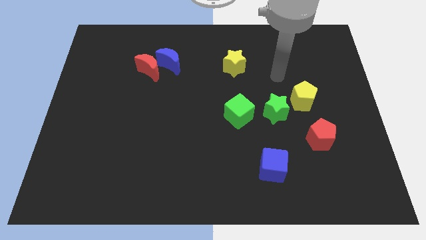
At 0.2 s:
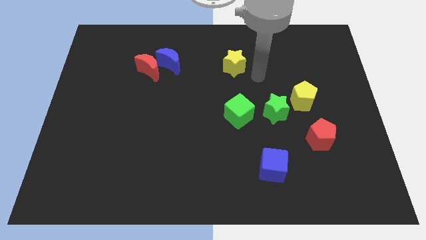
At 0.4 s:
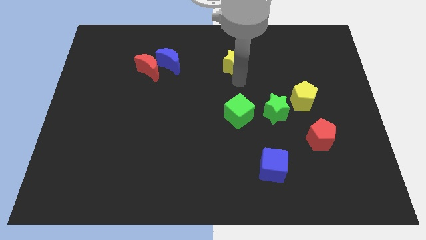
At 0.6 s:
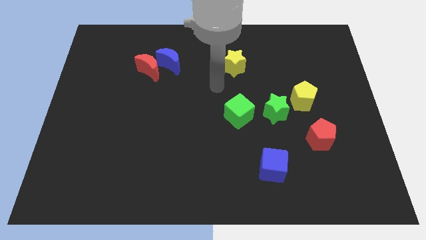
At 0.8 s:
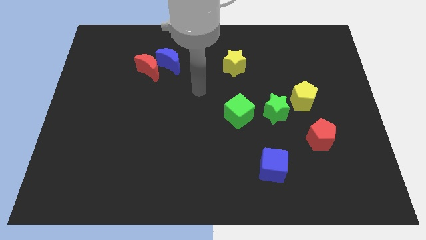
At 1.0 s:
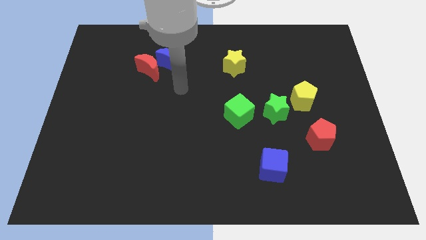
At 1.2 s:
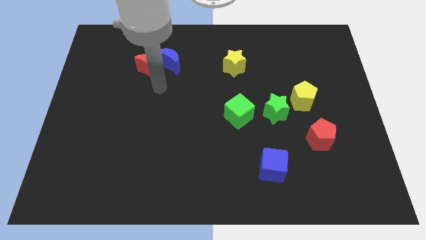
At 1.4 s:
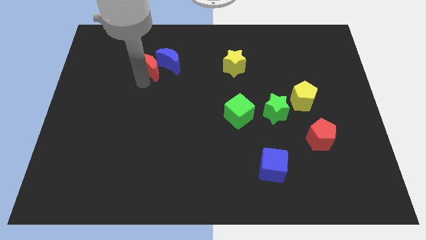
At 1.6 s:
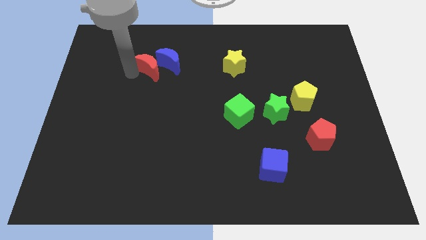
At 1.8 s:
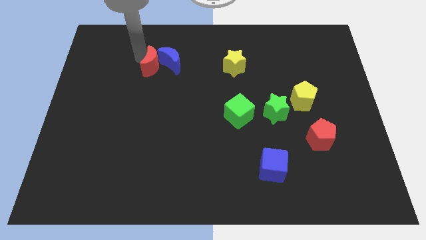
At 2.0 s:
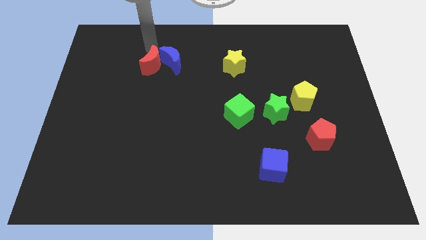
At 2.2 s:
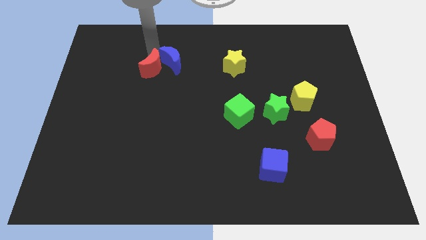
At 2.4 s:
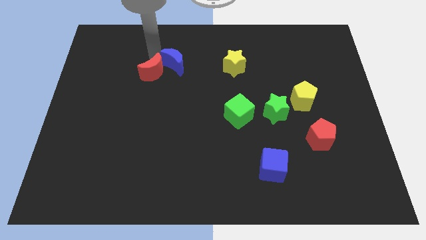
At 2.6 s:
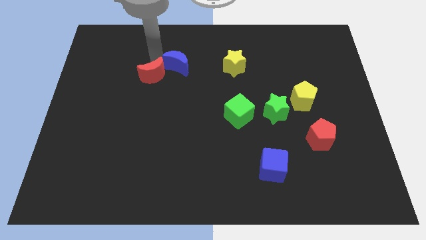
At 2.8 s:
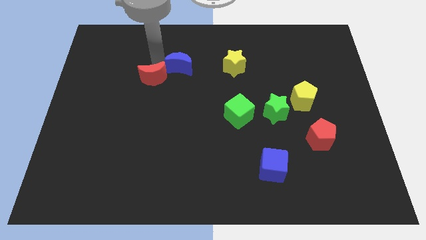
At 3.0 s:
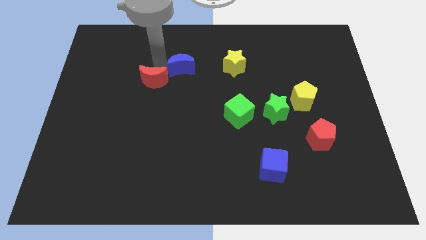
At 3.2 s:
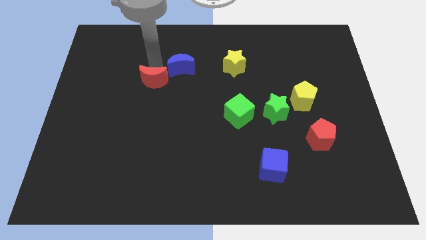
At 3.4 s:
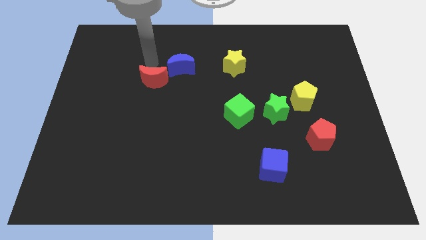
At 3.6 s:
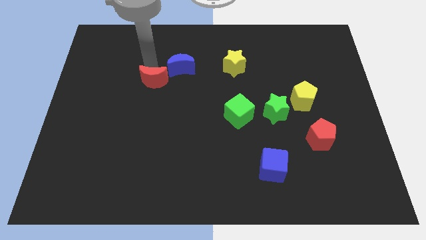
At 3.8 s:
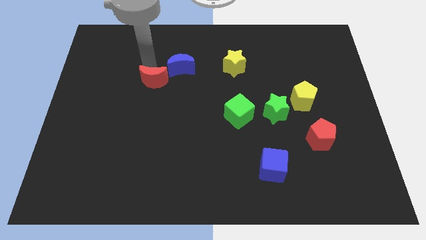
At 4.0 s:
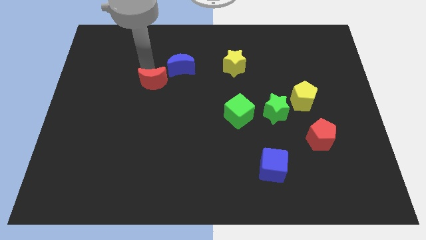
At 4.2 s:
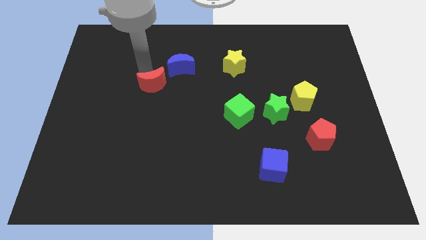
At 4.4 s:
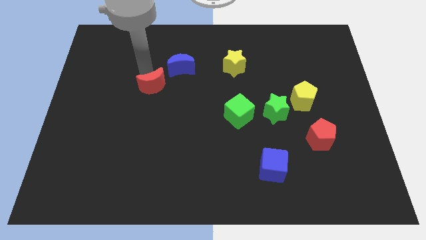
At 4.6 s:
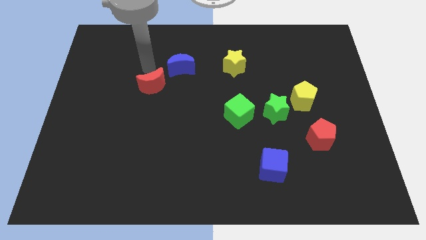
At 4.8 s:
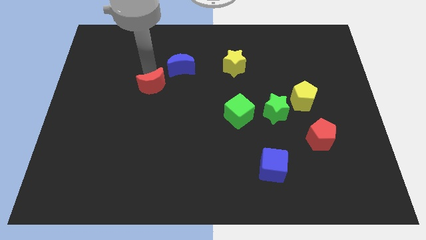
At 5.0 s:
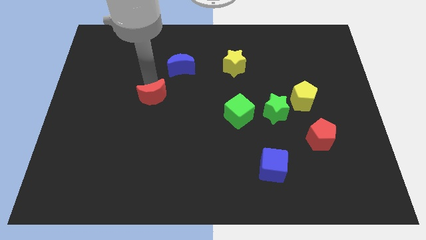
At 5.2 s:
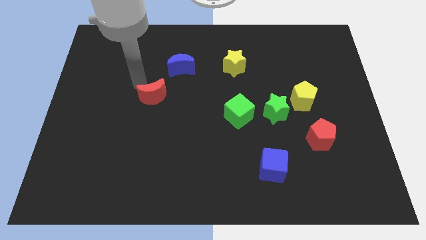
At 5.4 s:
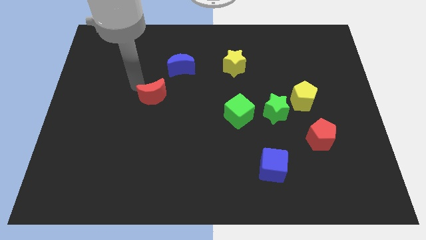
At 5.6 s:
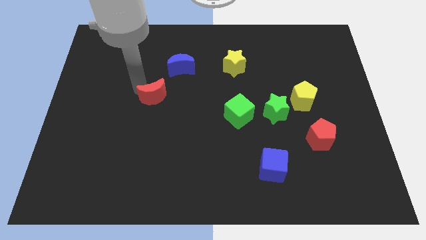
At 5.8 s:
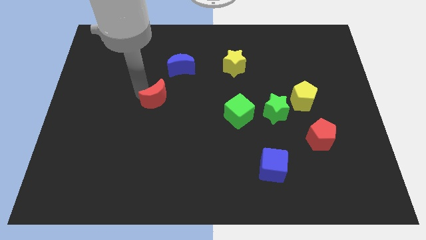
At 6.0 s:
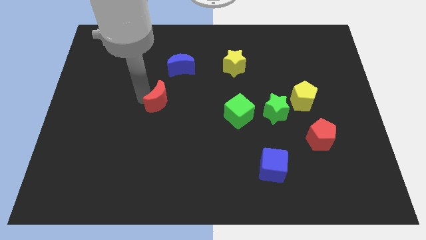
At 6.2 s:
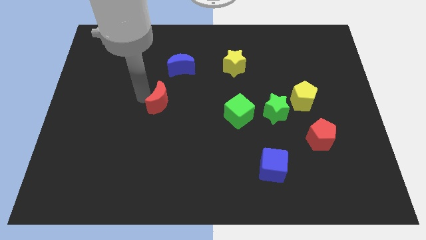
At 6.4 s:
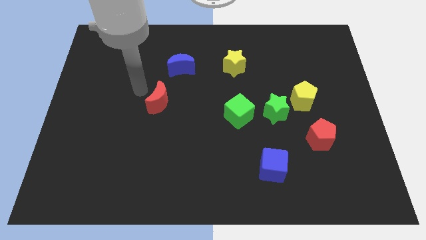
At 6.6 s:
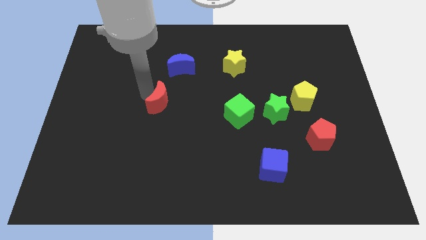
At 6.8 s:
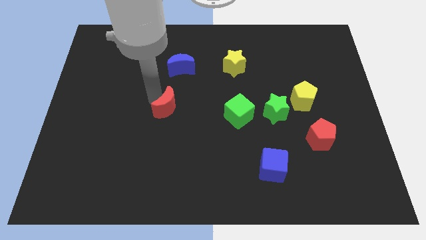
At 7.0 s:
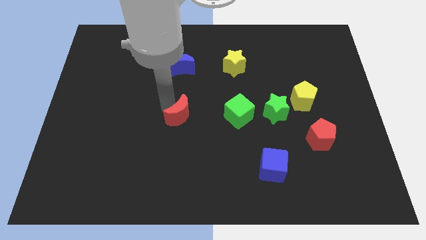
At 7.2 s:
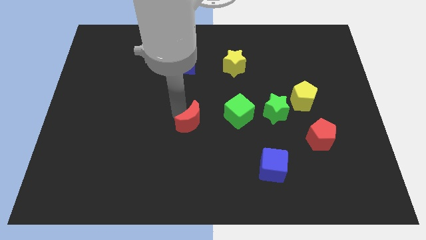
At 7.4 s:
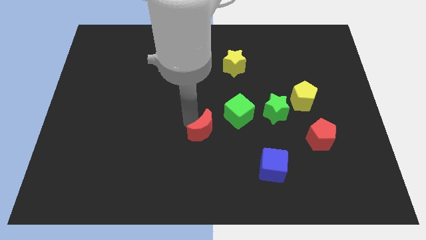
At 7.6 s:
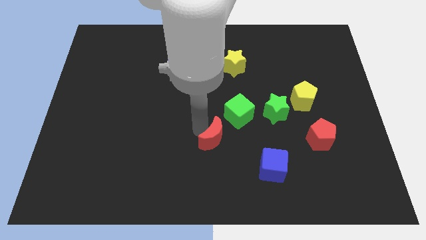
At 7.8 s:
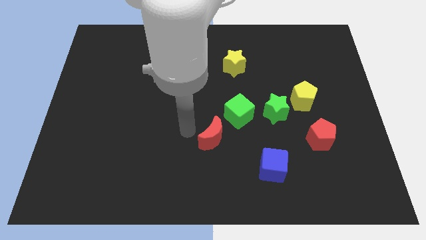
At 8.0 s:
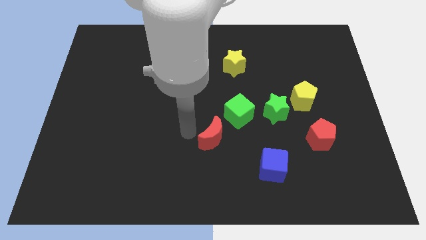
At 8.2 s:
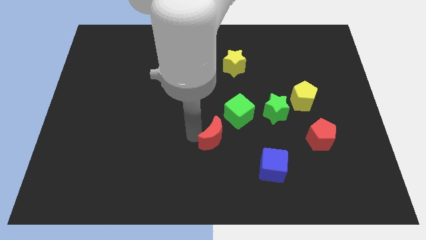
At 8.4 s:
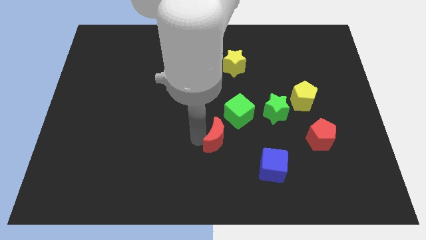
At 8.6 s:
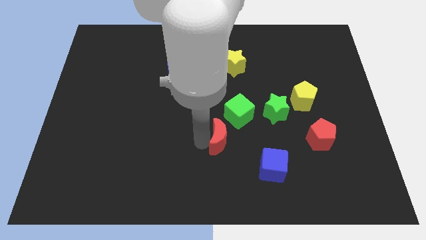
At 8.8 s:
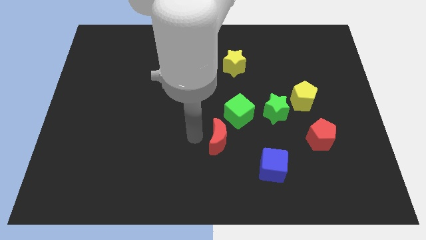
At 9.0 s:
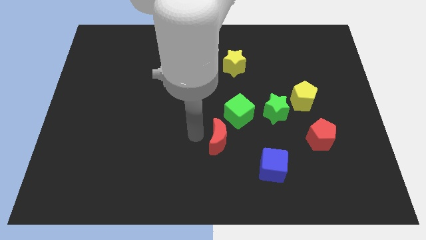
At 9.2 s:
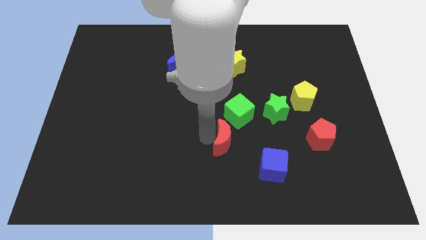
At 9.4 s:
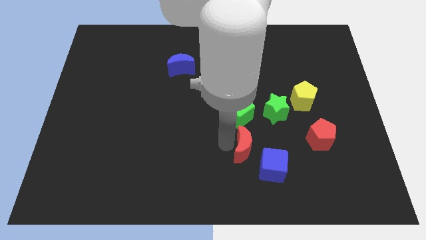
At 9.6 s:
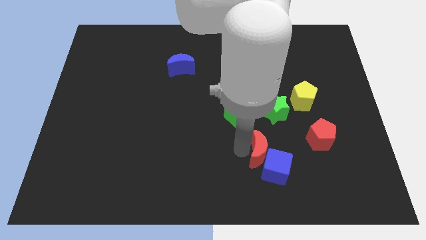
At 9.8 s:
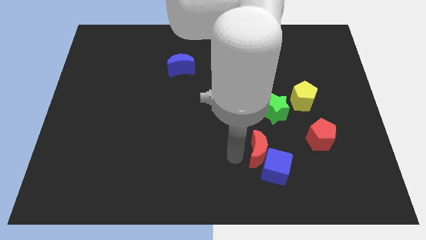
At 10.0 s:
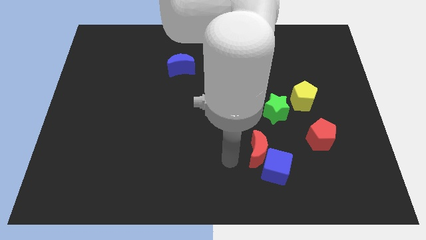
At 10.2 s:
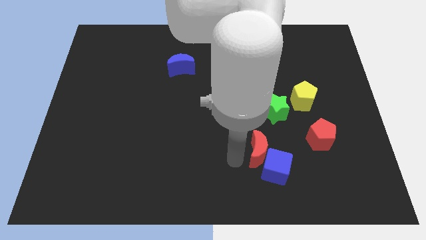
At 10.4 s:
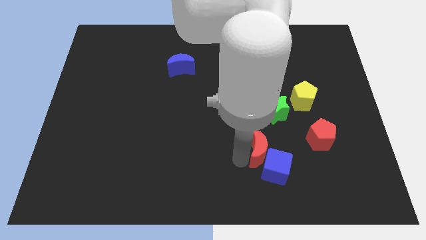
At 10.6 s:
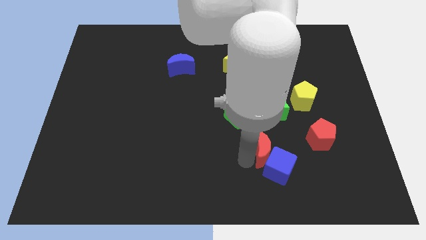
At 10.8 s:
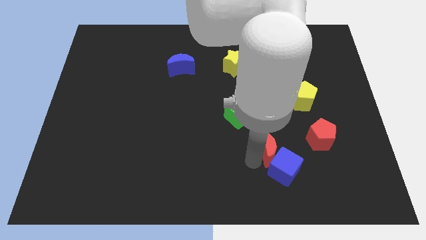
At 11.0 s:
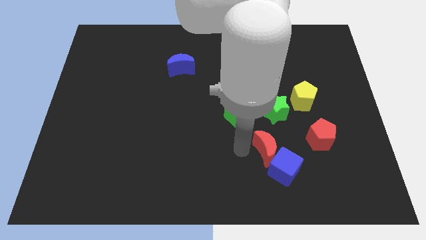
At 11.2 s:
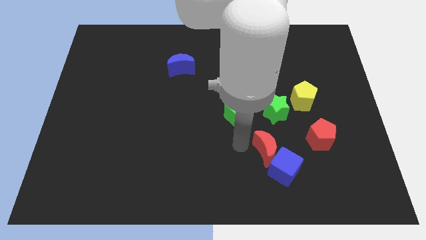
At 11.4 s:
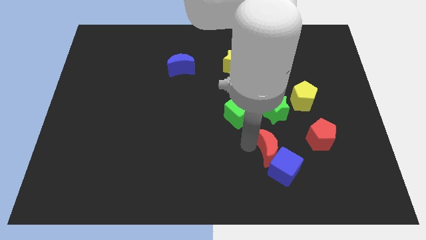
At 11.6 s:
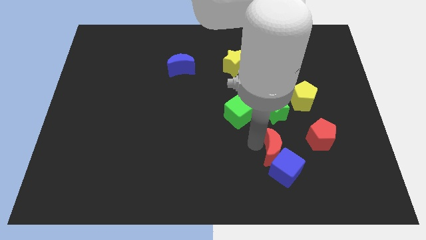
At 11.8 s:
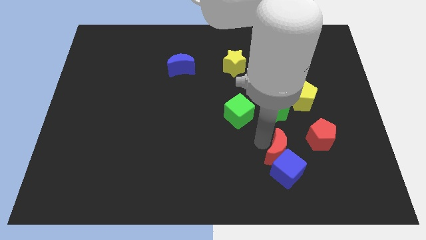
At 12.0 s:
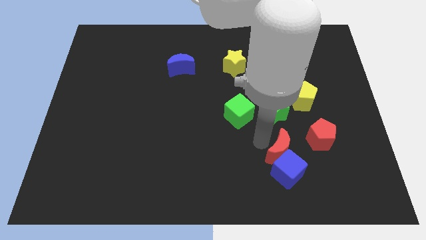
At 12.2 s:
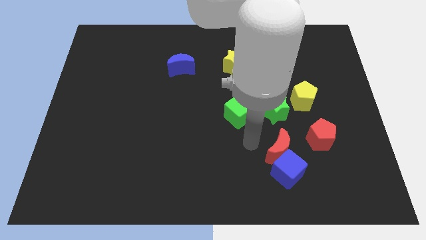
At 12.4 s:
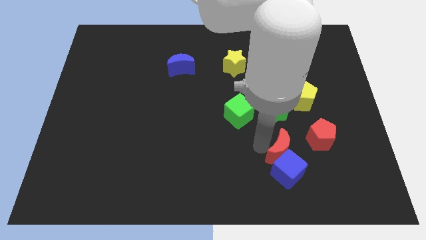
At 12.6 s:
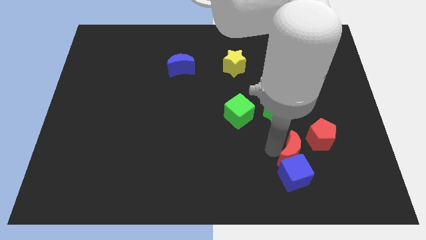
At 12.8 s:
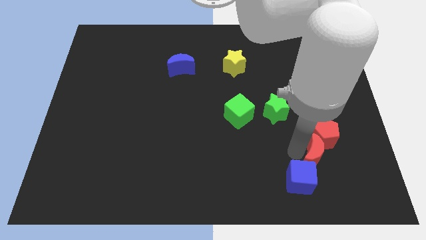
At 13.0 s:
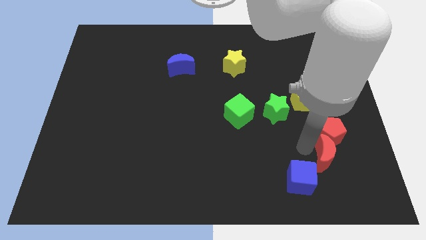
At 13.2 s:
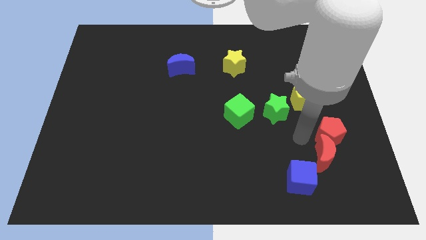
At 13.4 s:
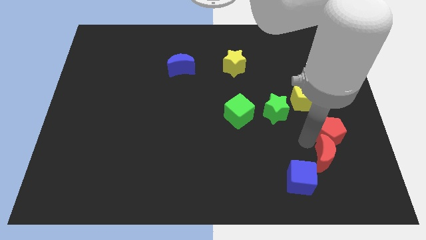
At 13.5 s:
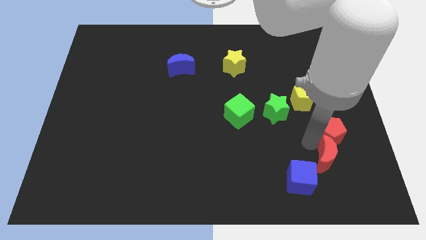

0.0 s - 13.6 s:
put the red moon right of the blue cube
